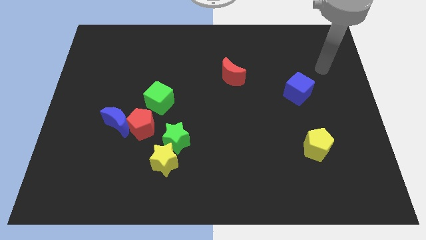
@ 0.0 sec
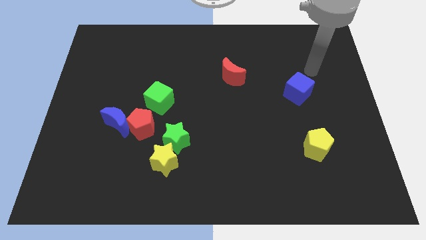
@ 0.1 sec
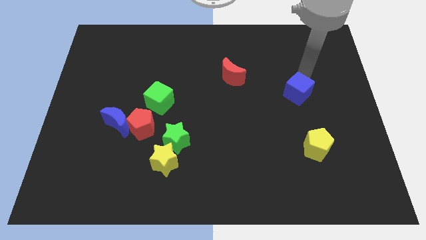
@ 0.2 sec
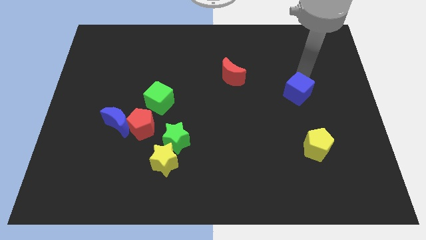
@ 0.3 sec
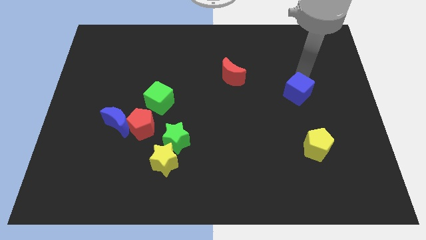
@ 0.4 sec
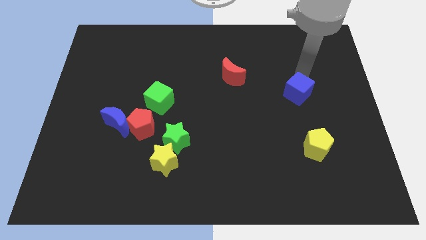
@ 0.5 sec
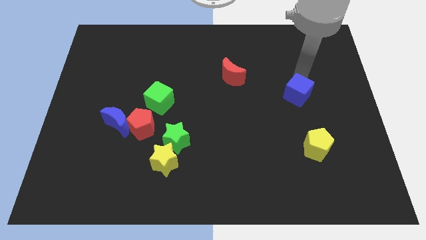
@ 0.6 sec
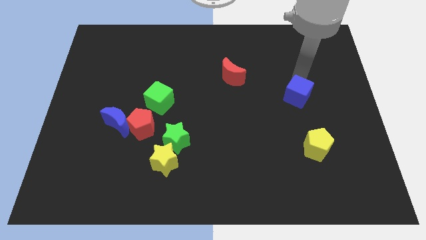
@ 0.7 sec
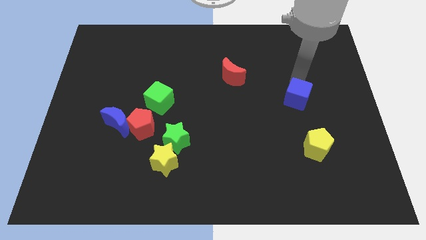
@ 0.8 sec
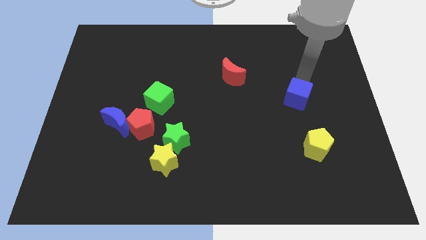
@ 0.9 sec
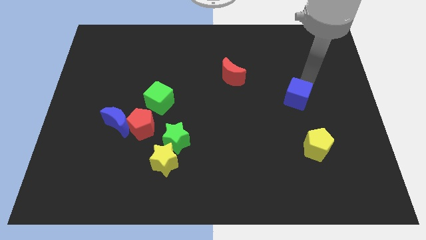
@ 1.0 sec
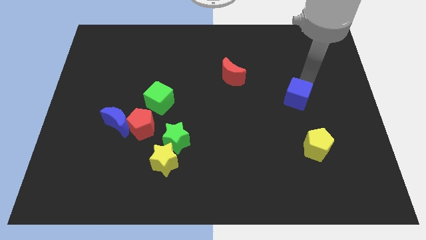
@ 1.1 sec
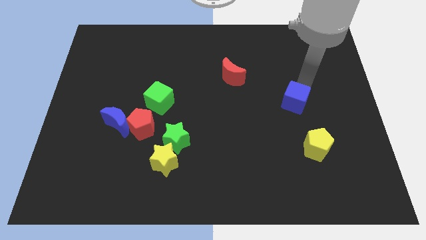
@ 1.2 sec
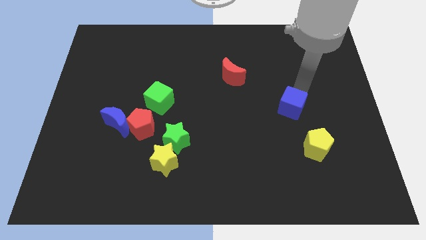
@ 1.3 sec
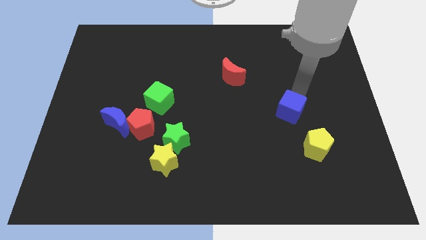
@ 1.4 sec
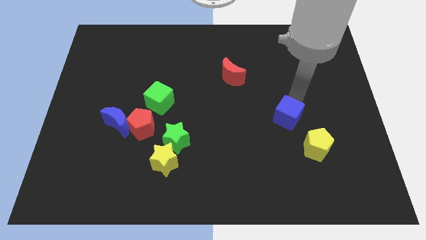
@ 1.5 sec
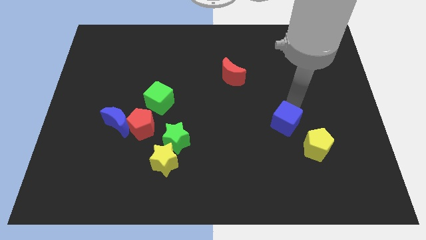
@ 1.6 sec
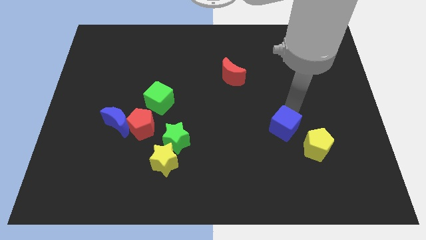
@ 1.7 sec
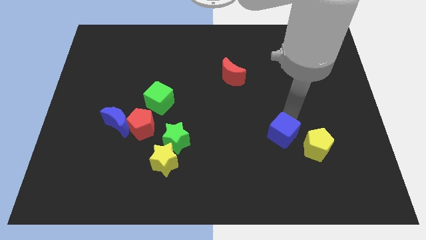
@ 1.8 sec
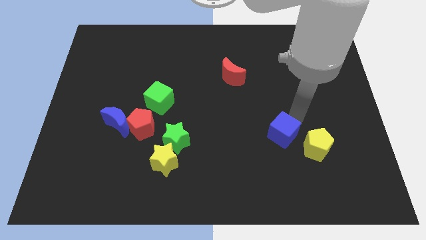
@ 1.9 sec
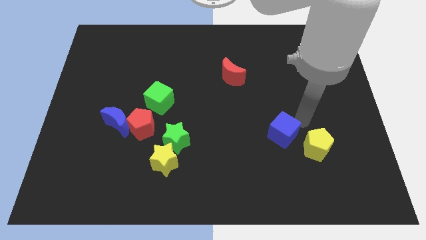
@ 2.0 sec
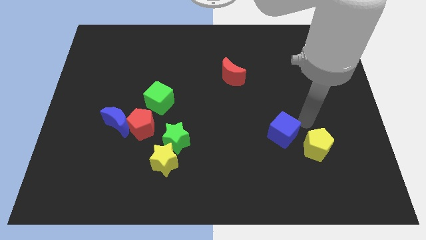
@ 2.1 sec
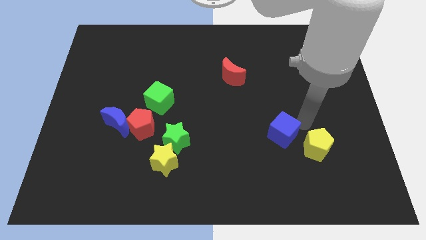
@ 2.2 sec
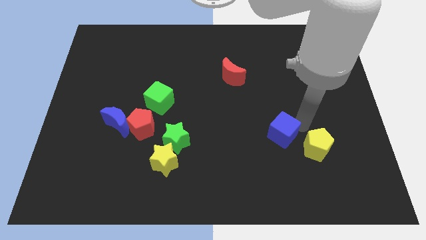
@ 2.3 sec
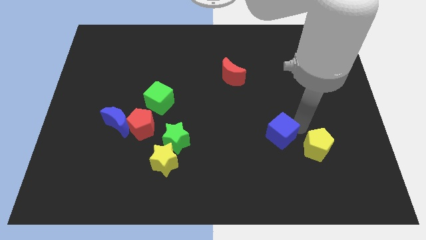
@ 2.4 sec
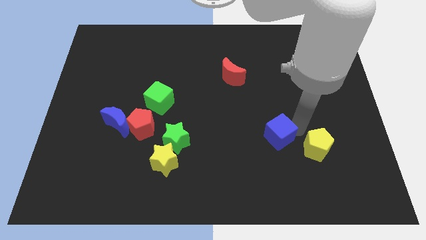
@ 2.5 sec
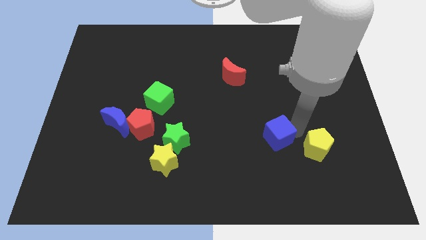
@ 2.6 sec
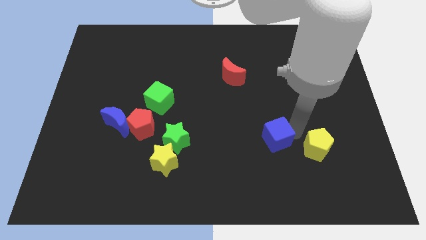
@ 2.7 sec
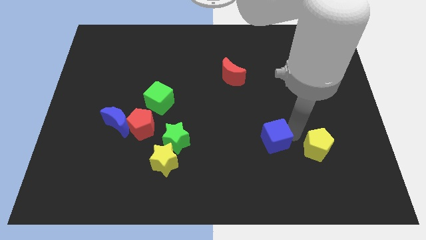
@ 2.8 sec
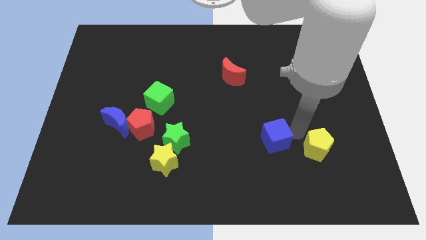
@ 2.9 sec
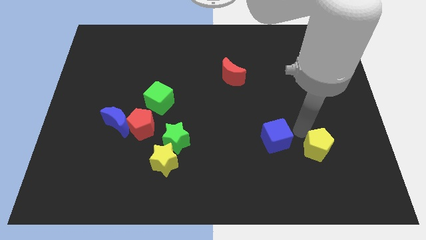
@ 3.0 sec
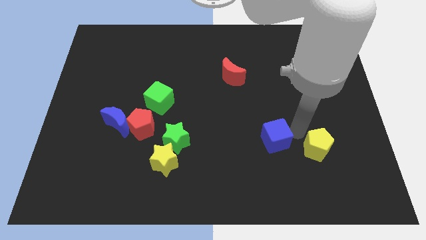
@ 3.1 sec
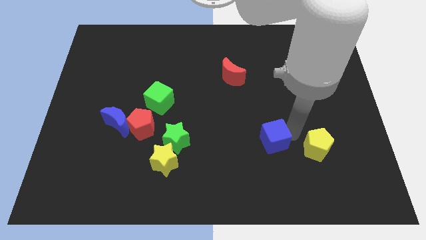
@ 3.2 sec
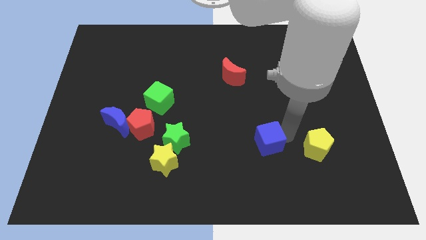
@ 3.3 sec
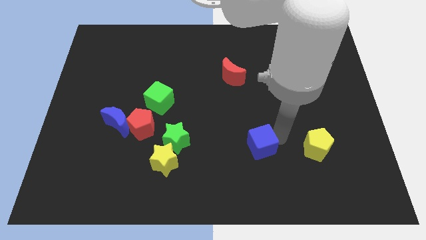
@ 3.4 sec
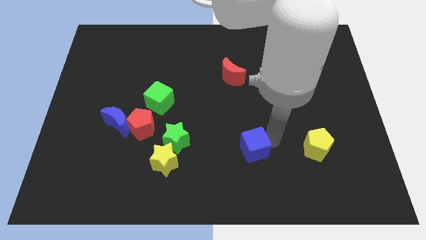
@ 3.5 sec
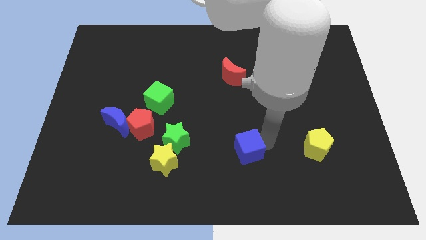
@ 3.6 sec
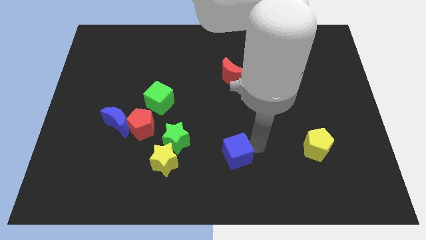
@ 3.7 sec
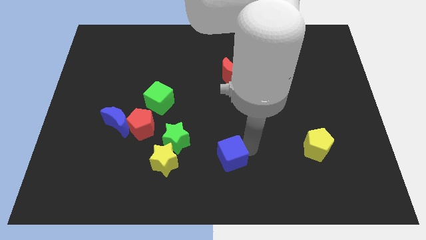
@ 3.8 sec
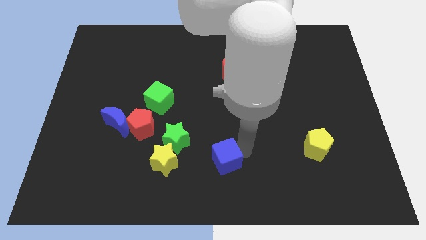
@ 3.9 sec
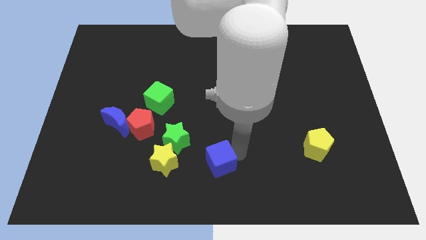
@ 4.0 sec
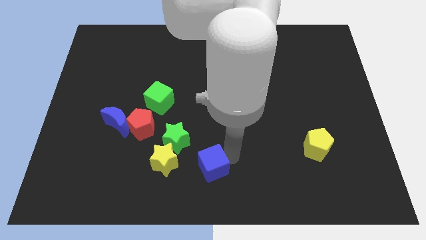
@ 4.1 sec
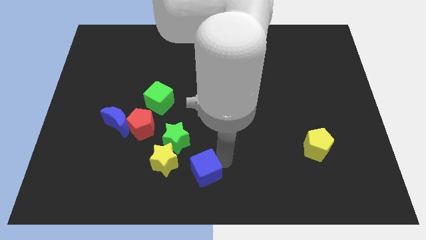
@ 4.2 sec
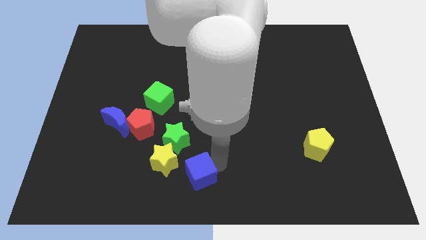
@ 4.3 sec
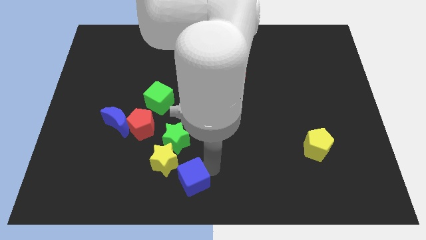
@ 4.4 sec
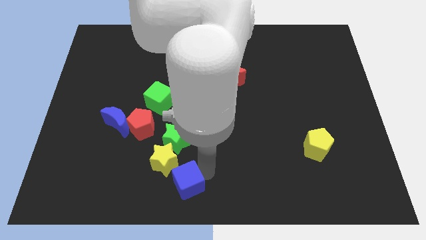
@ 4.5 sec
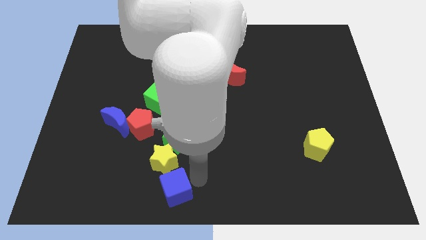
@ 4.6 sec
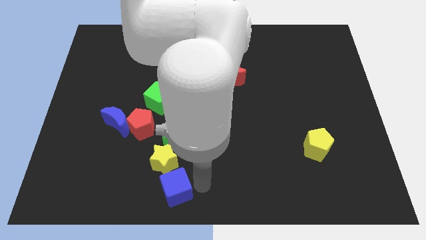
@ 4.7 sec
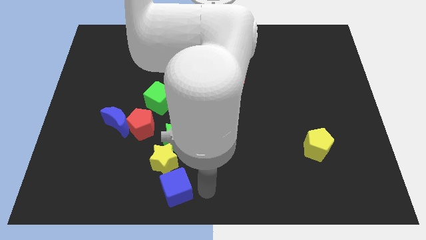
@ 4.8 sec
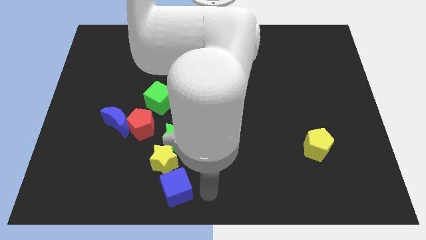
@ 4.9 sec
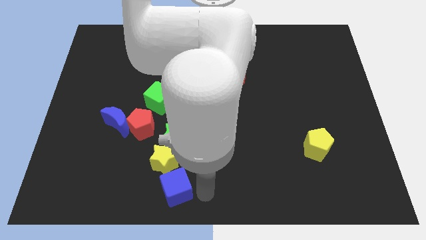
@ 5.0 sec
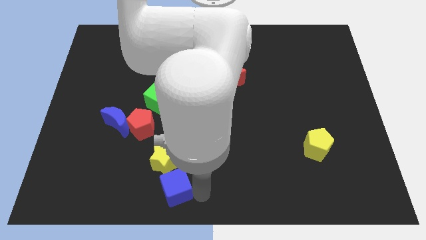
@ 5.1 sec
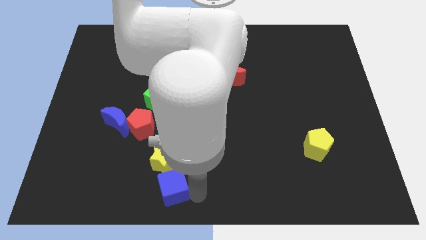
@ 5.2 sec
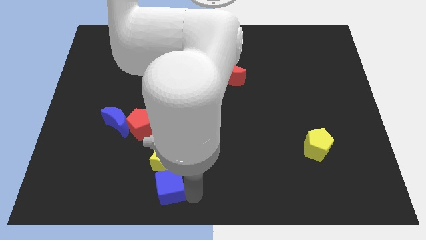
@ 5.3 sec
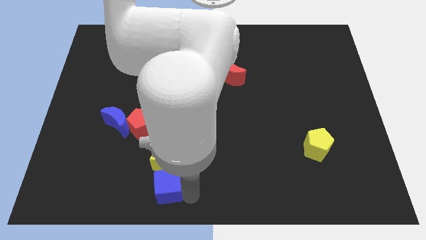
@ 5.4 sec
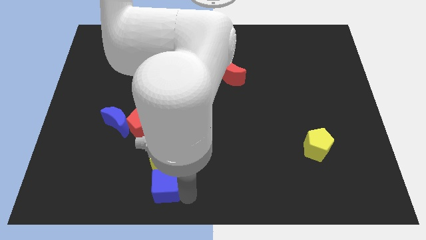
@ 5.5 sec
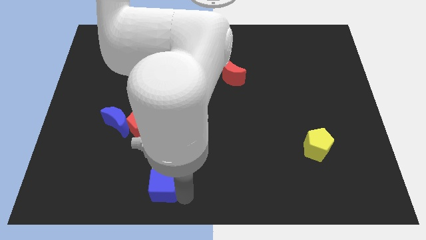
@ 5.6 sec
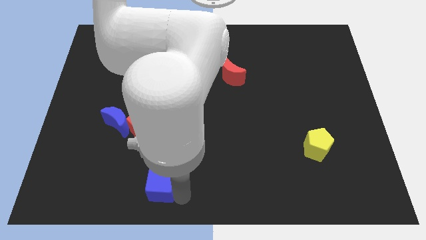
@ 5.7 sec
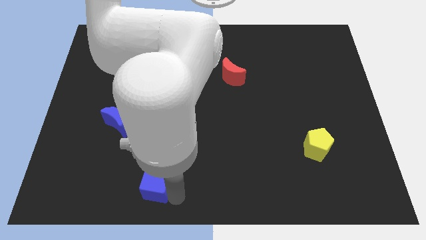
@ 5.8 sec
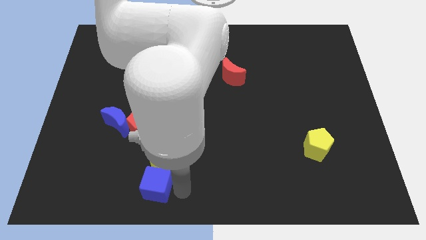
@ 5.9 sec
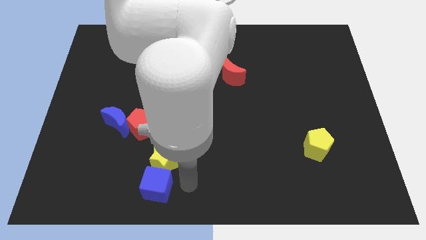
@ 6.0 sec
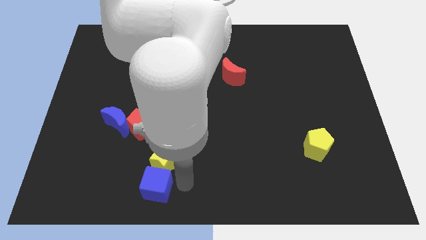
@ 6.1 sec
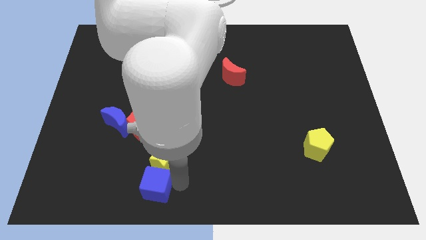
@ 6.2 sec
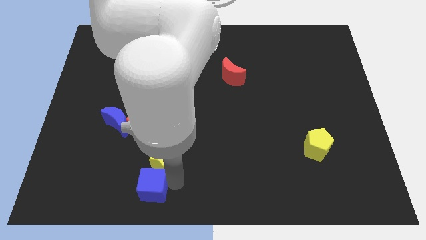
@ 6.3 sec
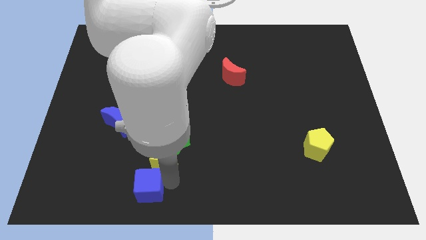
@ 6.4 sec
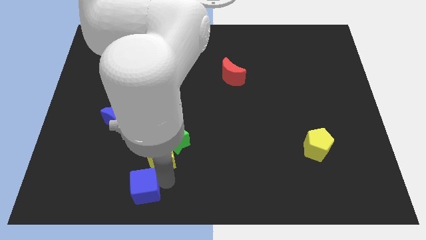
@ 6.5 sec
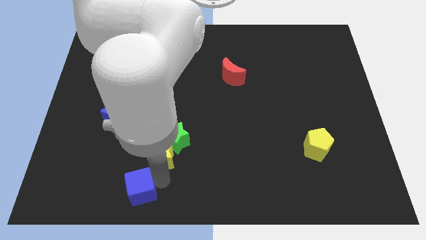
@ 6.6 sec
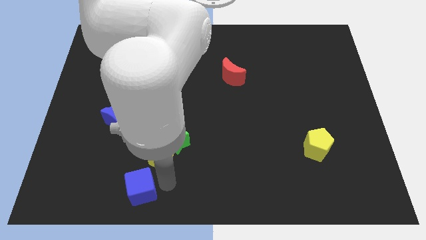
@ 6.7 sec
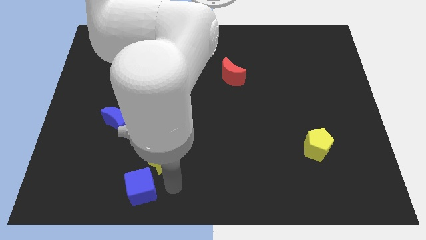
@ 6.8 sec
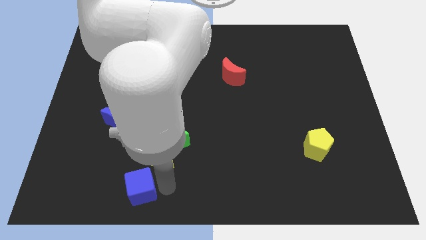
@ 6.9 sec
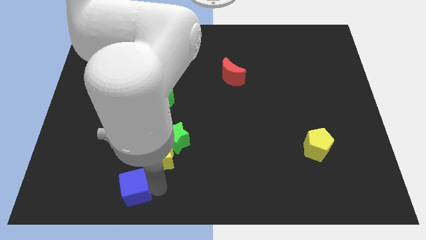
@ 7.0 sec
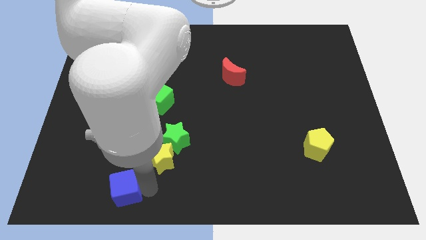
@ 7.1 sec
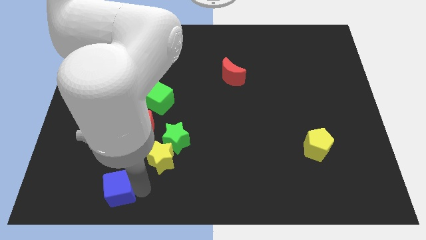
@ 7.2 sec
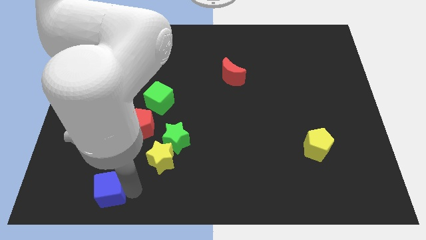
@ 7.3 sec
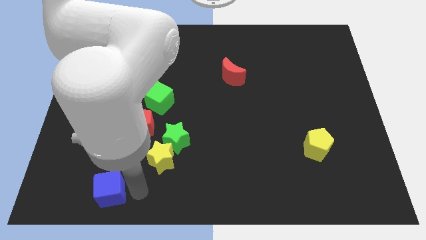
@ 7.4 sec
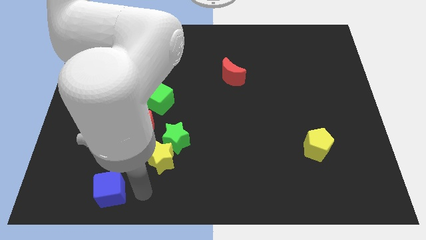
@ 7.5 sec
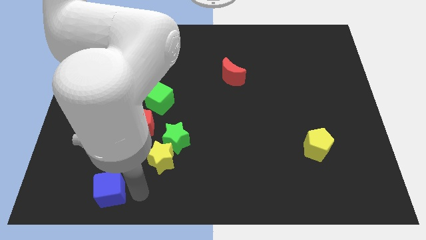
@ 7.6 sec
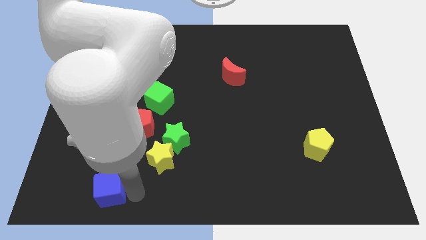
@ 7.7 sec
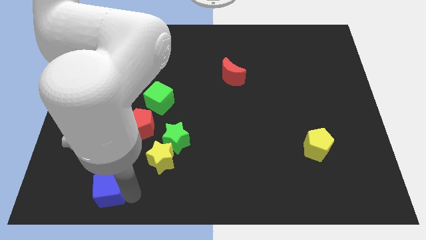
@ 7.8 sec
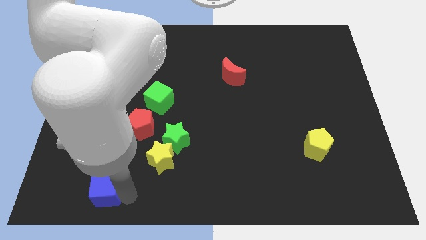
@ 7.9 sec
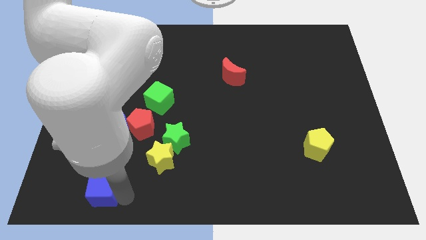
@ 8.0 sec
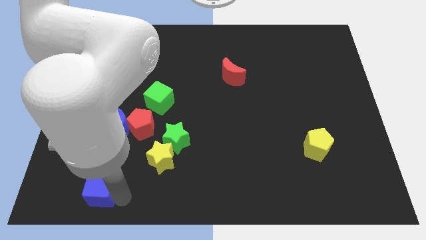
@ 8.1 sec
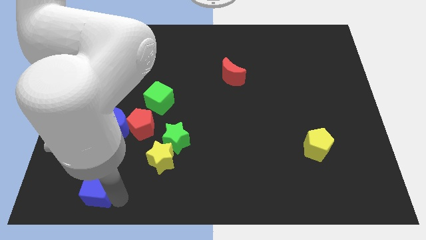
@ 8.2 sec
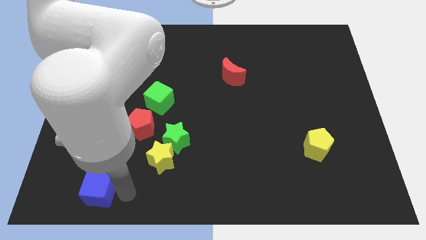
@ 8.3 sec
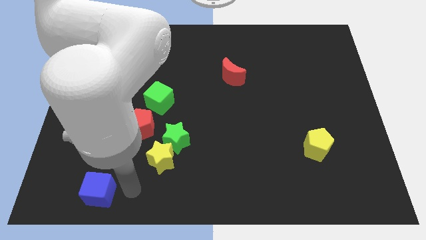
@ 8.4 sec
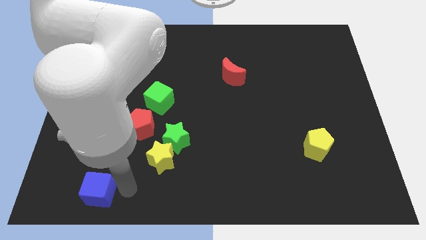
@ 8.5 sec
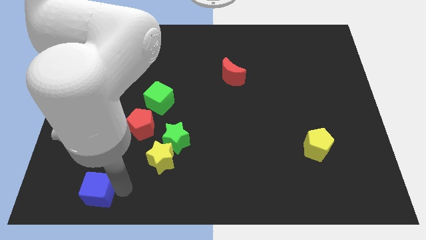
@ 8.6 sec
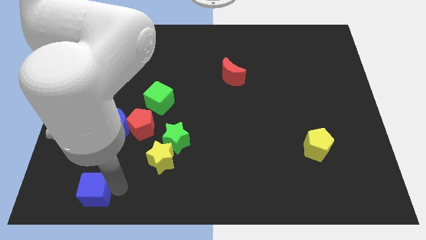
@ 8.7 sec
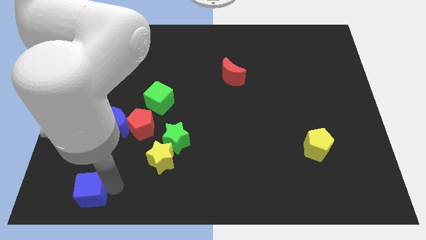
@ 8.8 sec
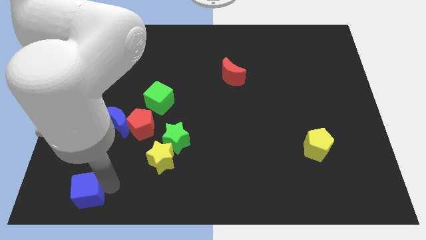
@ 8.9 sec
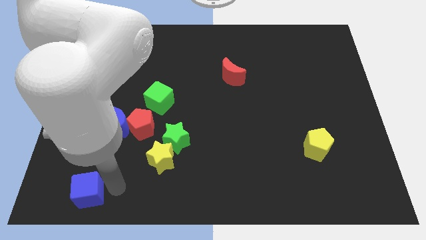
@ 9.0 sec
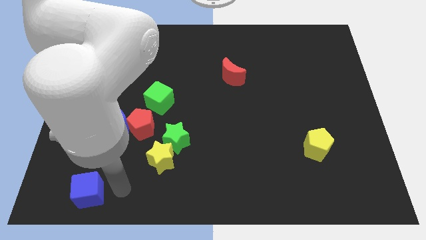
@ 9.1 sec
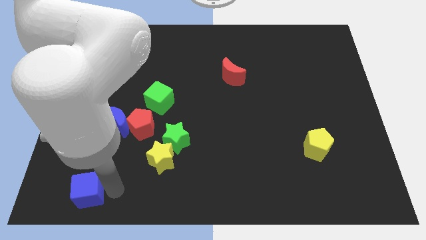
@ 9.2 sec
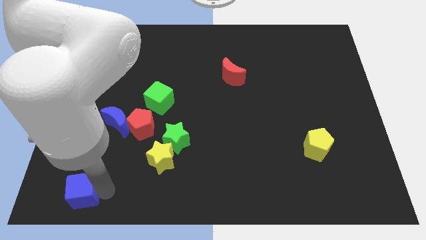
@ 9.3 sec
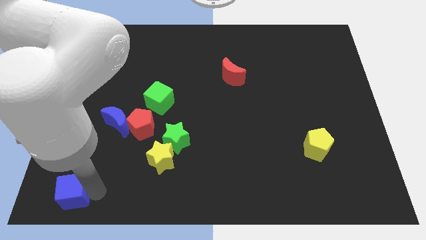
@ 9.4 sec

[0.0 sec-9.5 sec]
put the blue cube to the bottom left of the board
